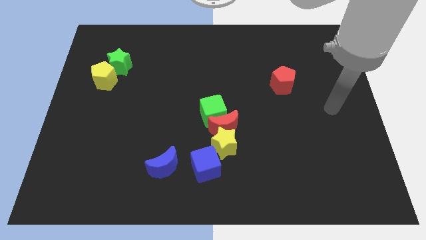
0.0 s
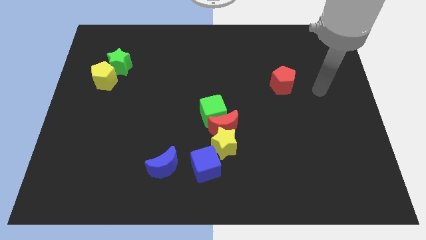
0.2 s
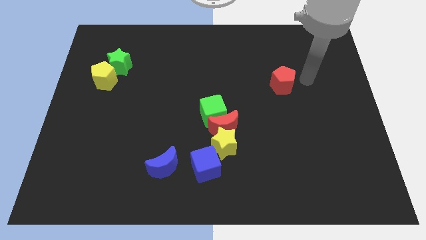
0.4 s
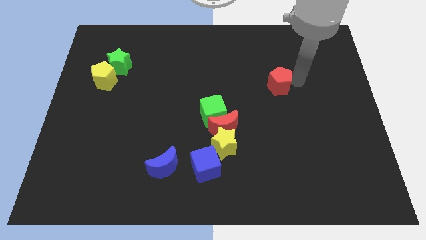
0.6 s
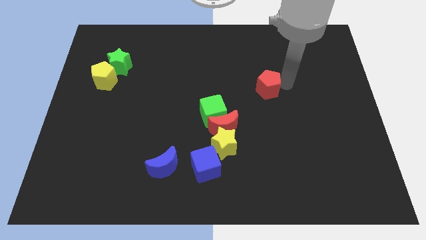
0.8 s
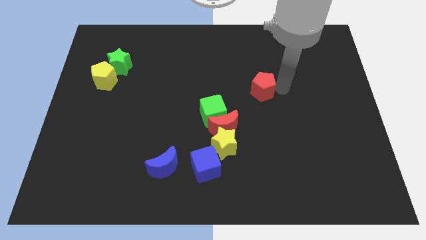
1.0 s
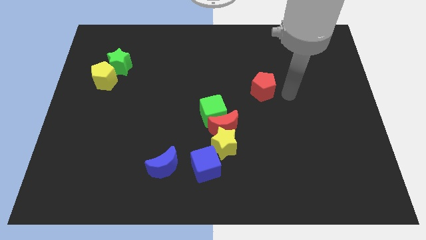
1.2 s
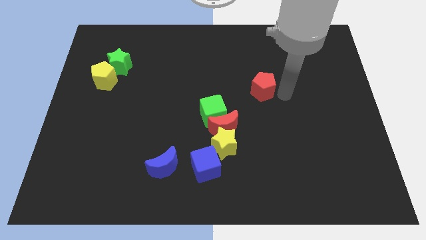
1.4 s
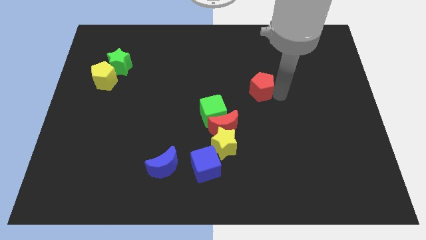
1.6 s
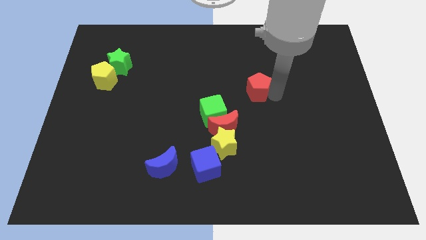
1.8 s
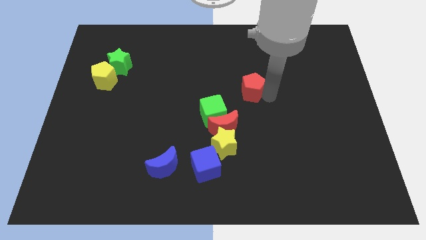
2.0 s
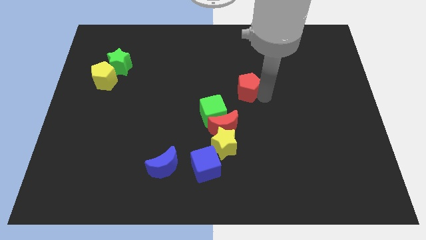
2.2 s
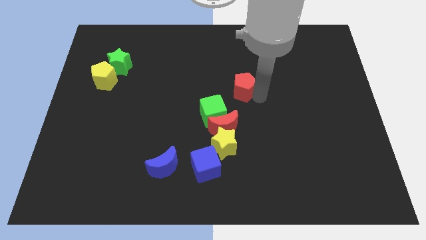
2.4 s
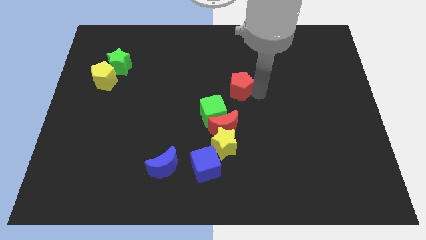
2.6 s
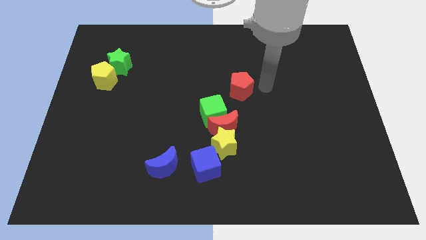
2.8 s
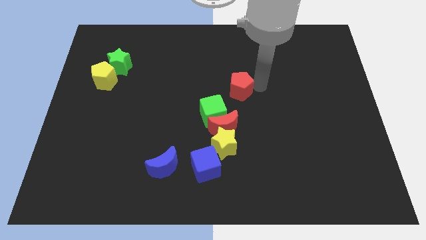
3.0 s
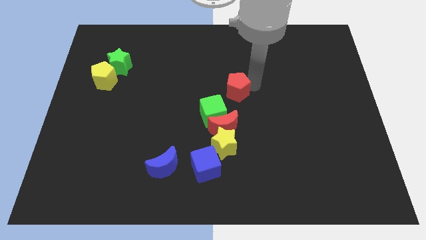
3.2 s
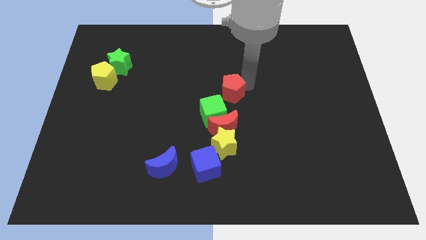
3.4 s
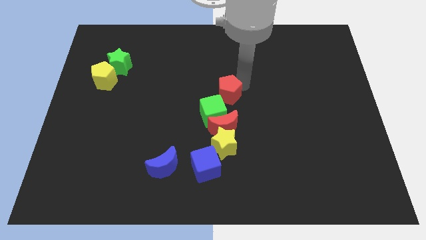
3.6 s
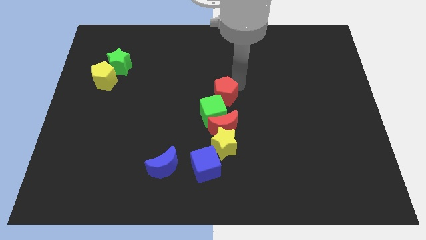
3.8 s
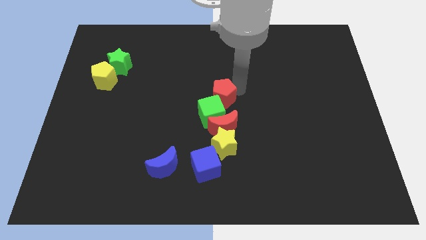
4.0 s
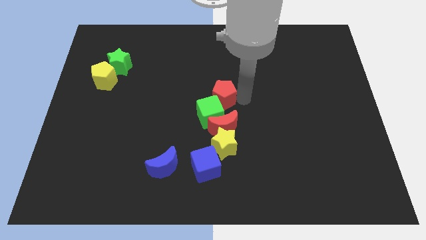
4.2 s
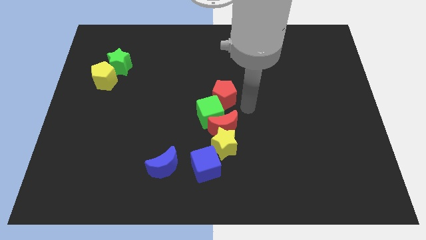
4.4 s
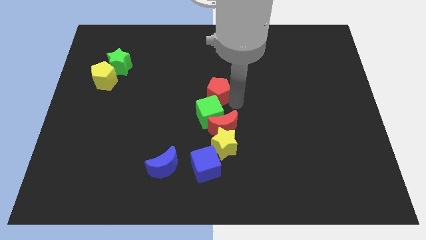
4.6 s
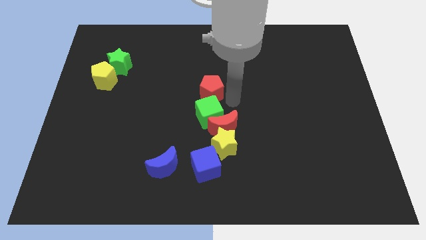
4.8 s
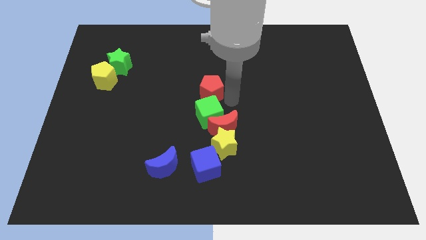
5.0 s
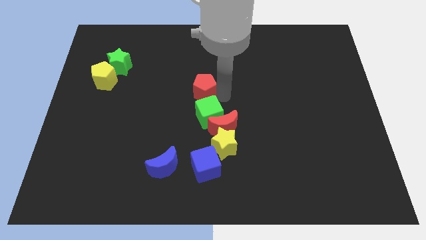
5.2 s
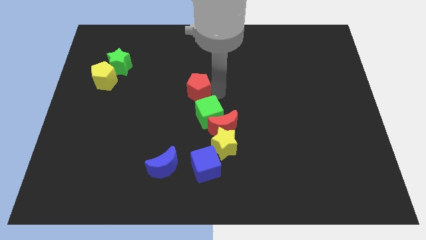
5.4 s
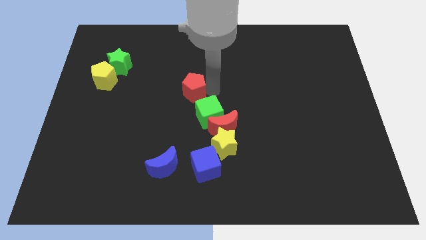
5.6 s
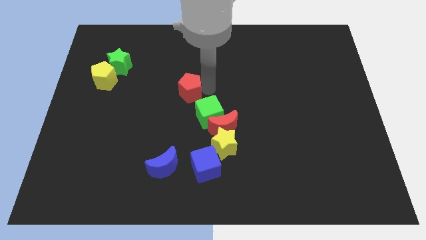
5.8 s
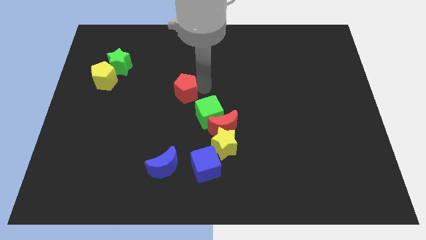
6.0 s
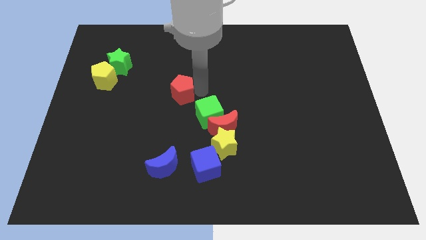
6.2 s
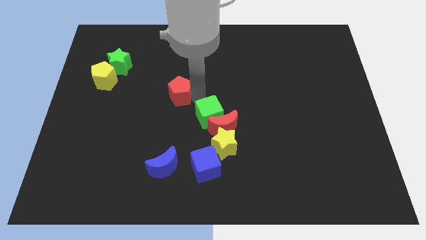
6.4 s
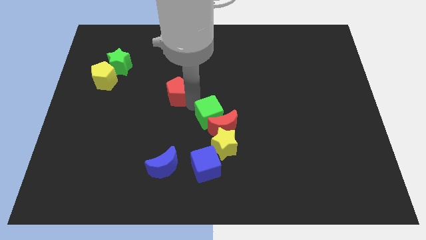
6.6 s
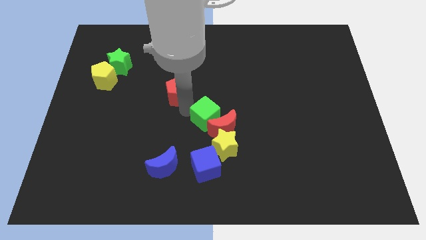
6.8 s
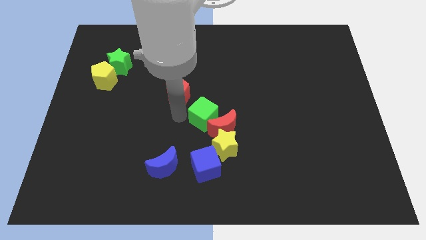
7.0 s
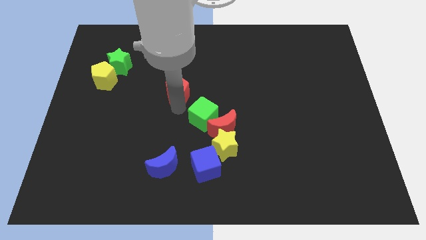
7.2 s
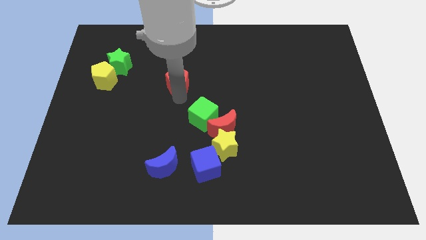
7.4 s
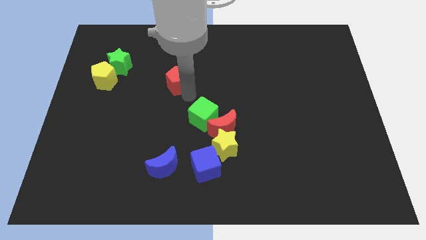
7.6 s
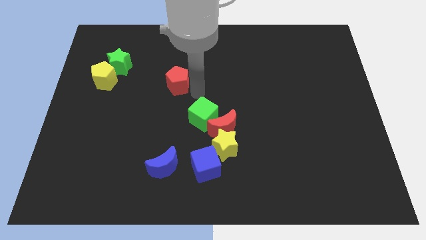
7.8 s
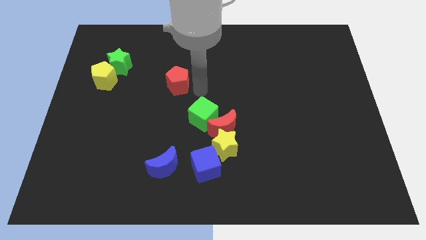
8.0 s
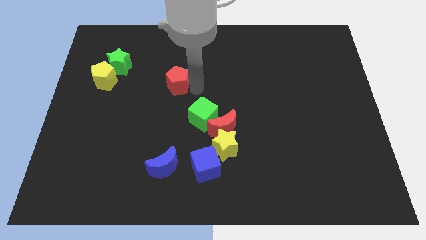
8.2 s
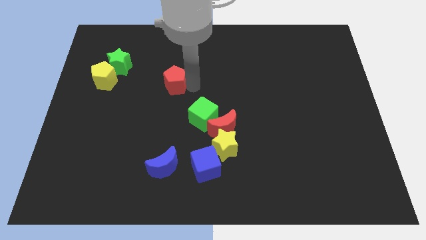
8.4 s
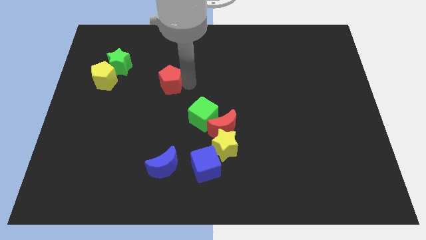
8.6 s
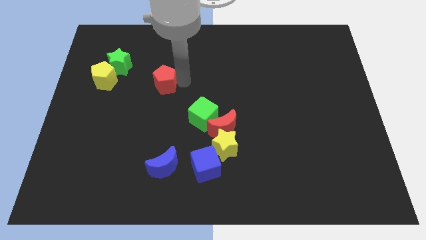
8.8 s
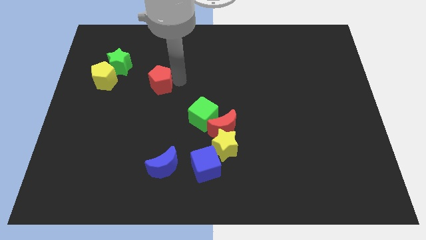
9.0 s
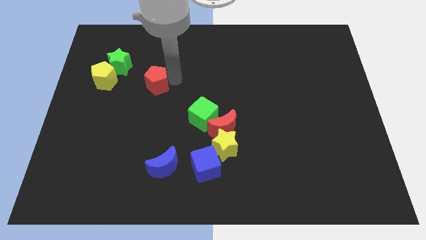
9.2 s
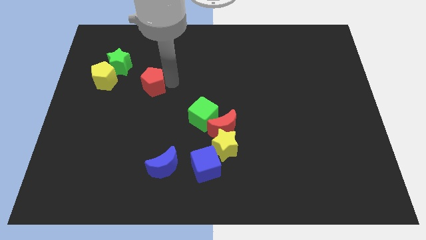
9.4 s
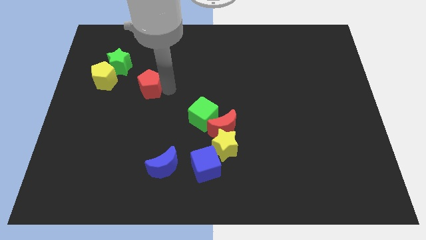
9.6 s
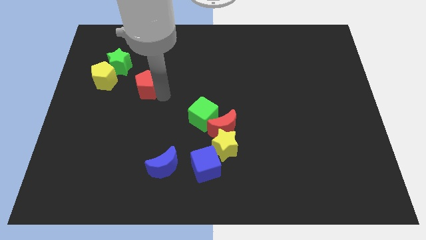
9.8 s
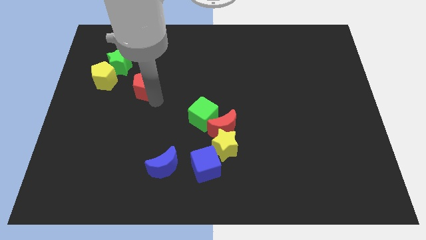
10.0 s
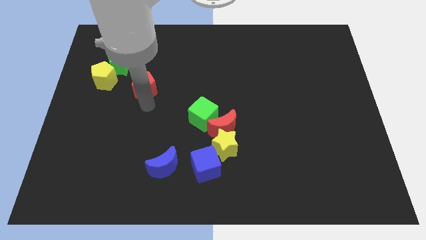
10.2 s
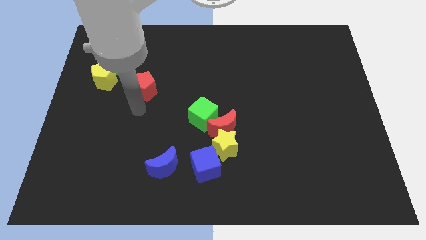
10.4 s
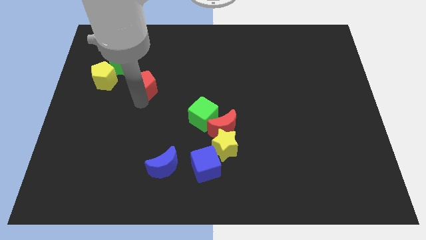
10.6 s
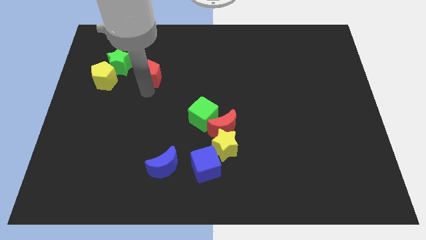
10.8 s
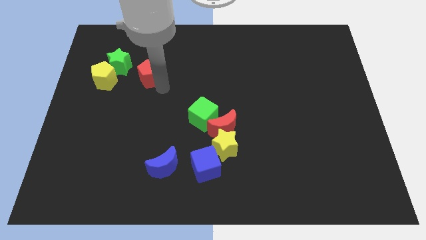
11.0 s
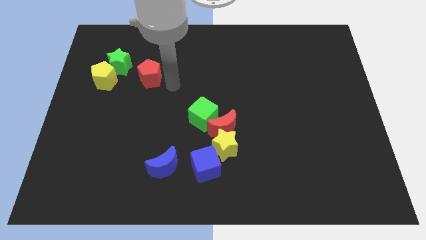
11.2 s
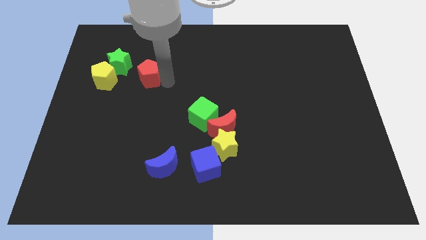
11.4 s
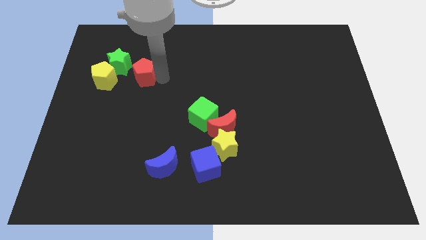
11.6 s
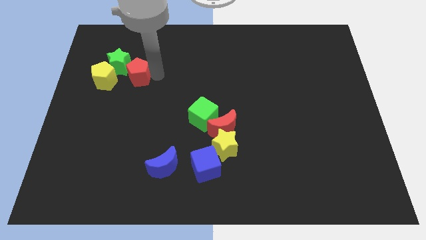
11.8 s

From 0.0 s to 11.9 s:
move the red pentagon towards the green star

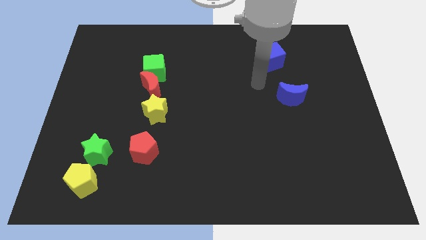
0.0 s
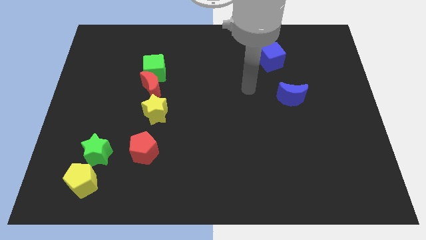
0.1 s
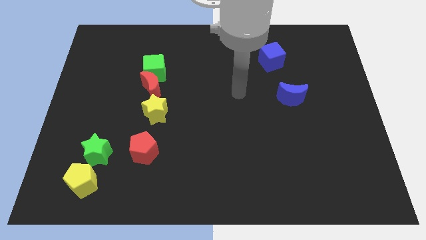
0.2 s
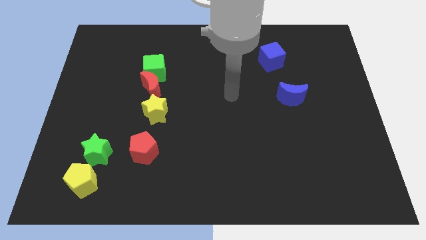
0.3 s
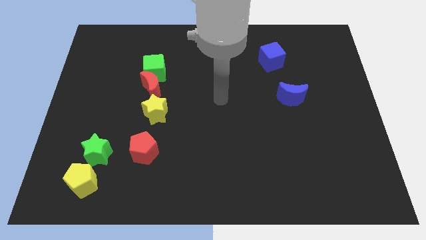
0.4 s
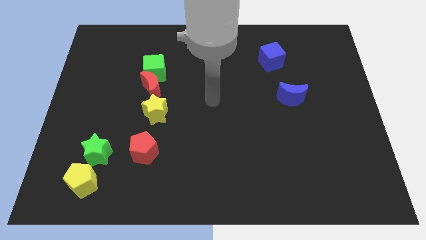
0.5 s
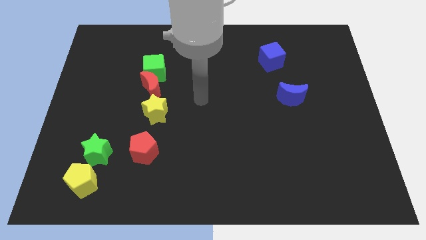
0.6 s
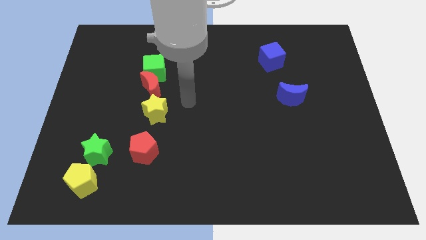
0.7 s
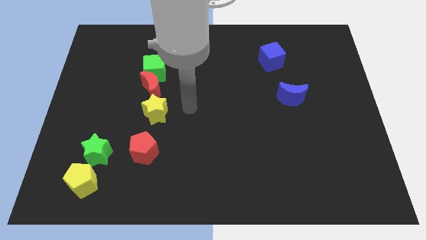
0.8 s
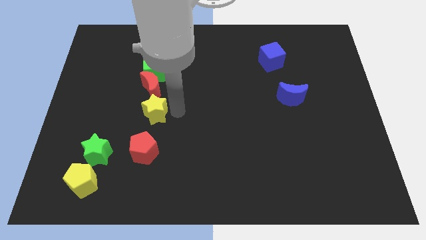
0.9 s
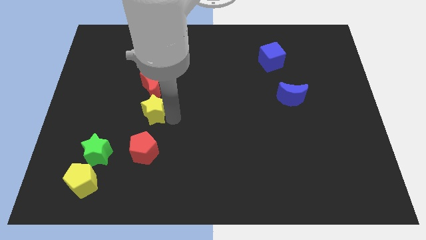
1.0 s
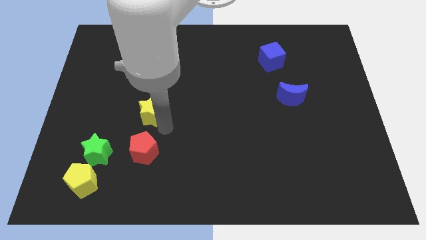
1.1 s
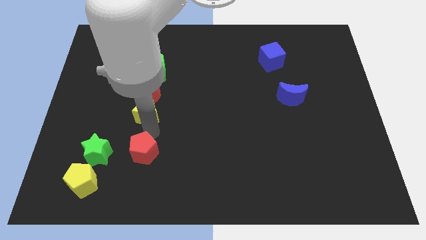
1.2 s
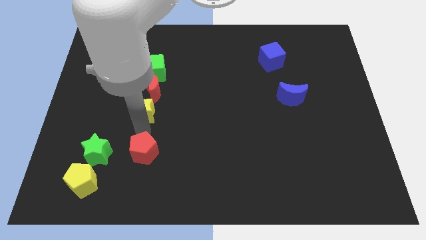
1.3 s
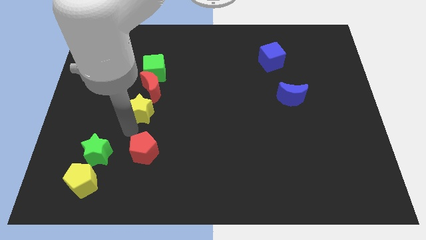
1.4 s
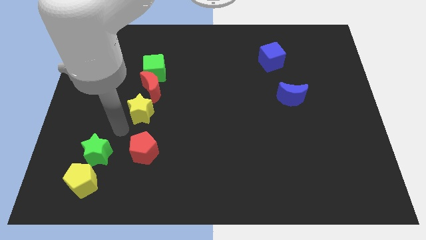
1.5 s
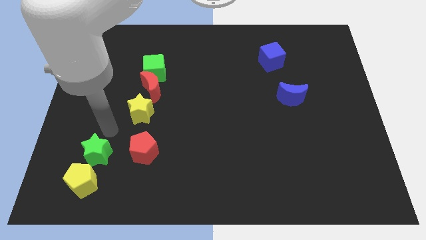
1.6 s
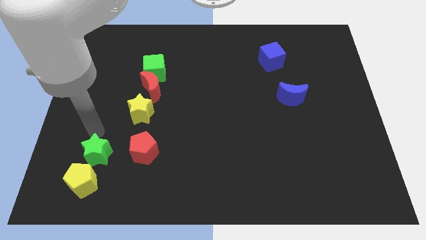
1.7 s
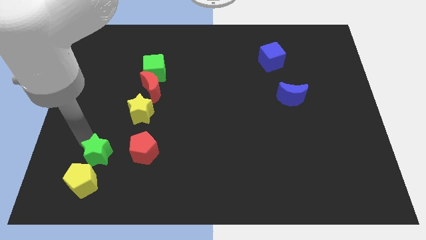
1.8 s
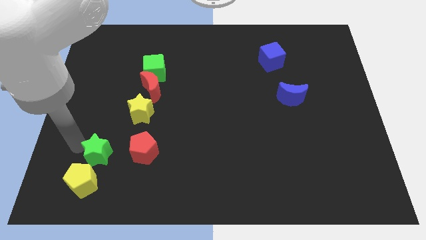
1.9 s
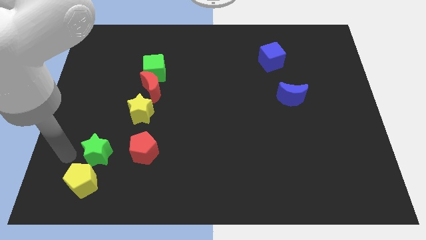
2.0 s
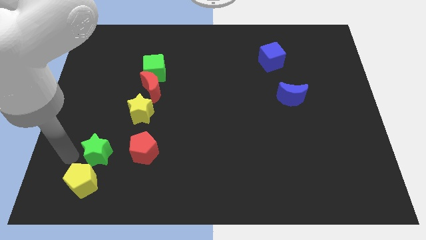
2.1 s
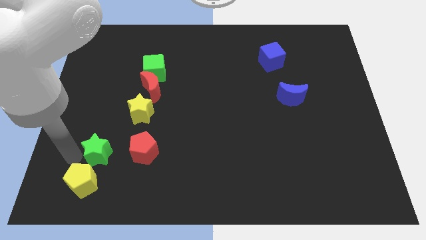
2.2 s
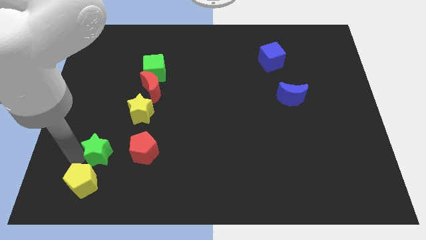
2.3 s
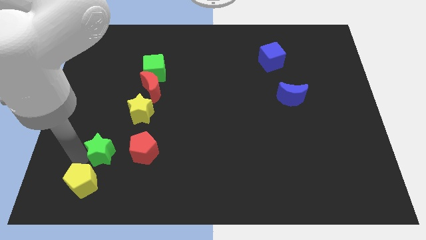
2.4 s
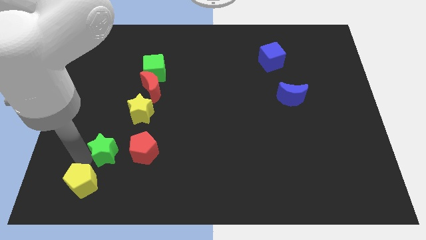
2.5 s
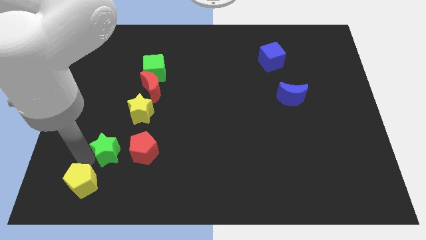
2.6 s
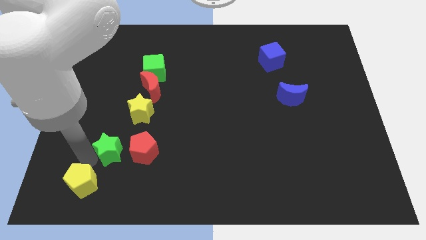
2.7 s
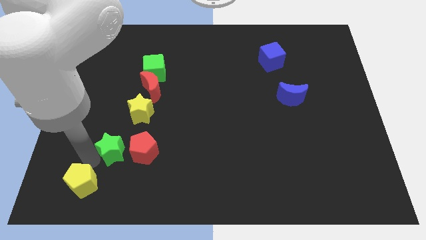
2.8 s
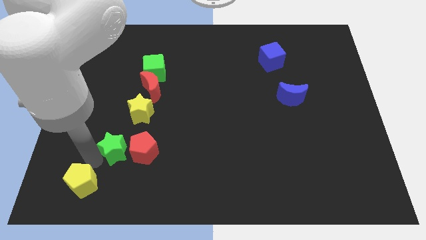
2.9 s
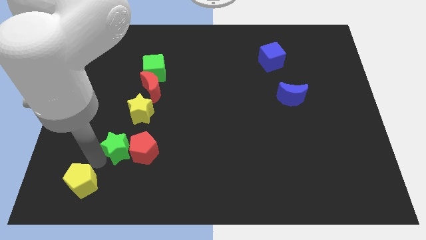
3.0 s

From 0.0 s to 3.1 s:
put the green star towards the red pentagon
